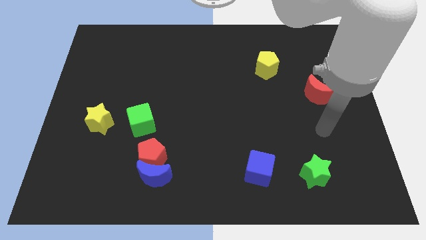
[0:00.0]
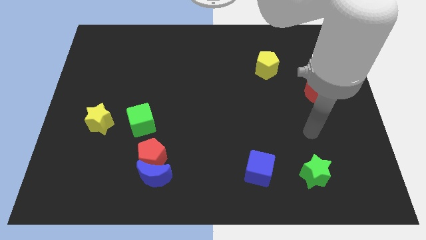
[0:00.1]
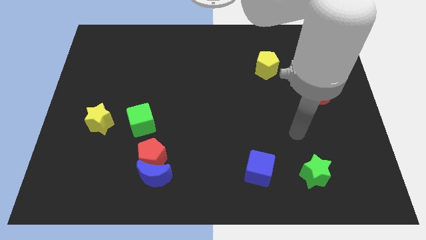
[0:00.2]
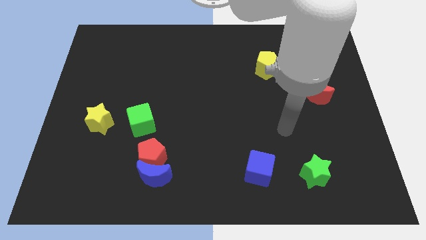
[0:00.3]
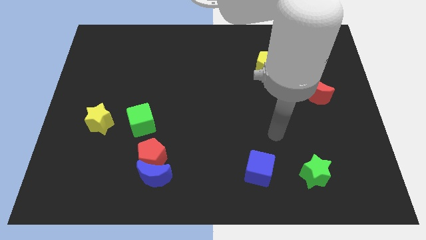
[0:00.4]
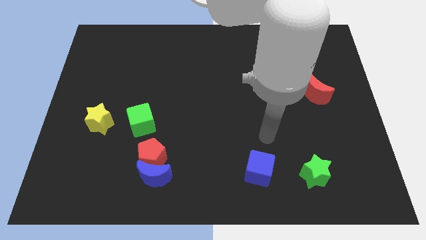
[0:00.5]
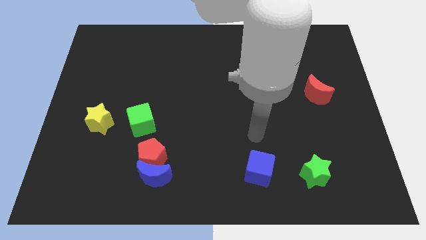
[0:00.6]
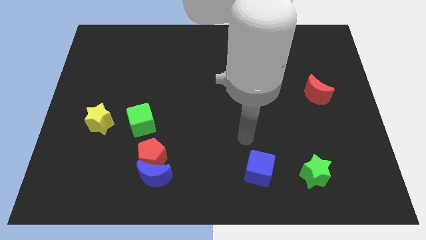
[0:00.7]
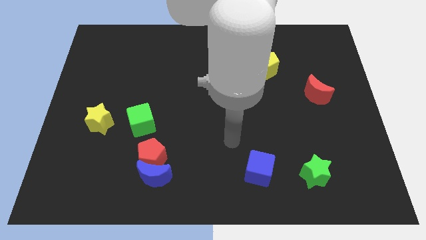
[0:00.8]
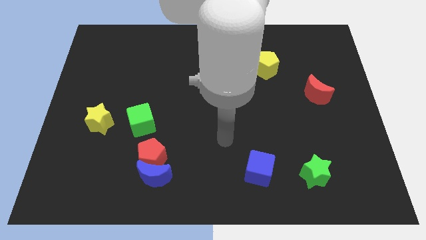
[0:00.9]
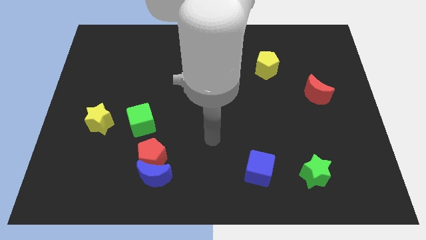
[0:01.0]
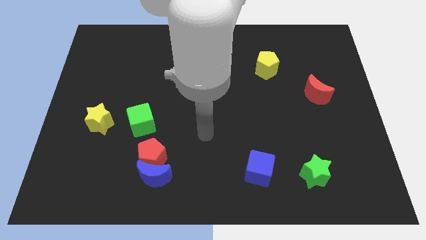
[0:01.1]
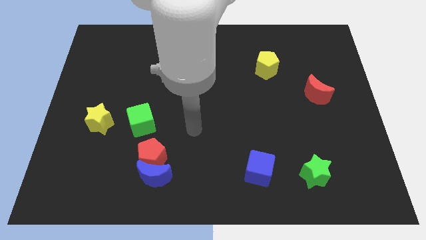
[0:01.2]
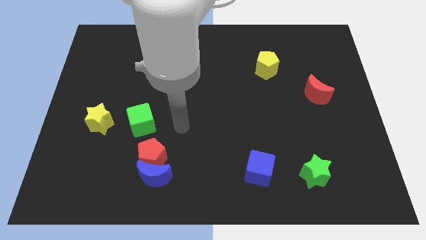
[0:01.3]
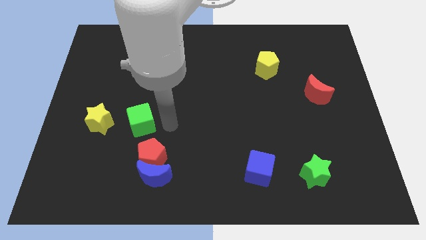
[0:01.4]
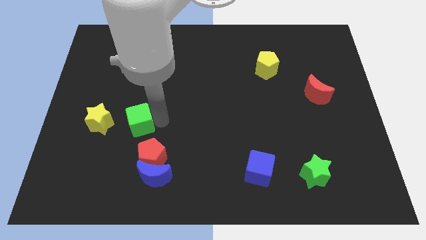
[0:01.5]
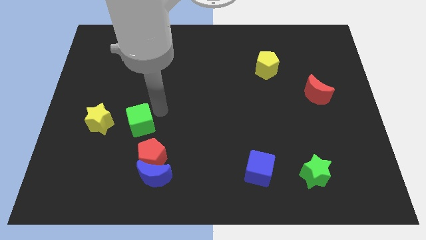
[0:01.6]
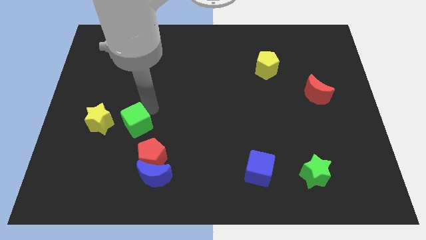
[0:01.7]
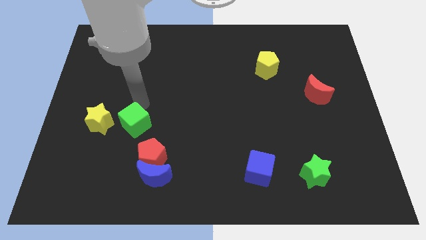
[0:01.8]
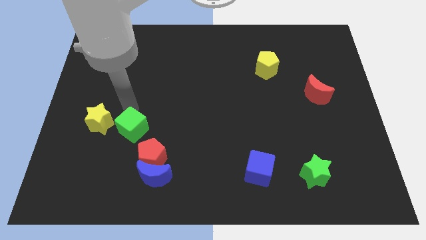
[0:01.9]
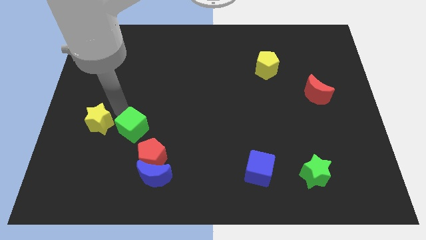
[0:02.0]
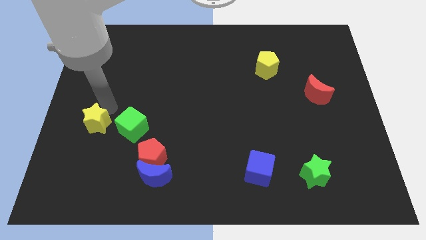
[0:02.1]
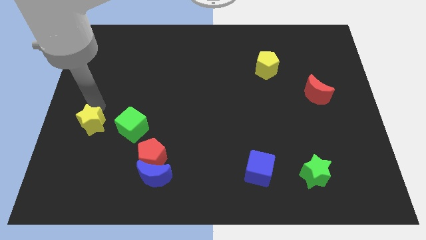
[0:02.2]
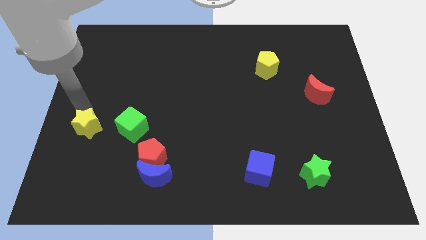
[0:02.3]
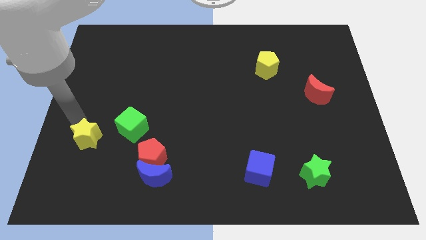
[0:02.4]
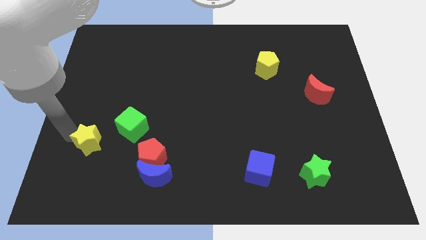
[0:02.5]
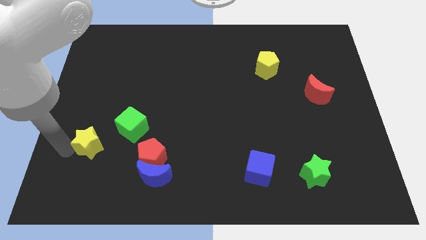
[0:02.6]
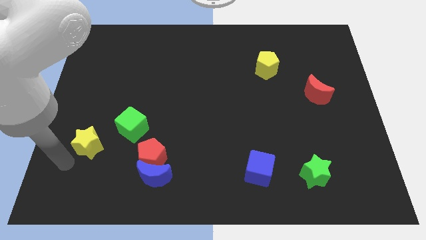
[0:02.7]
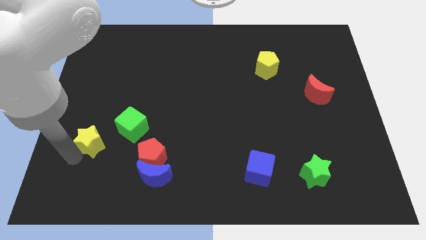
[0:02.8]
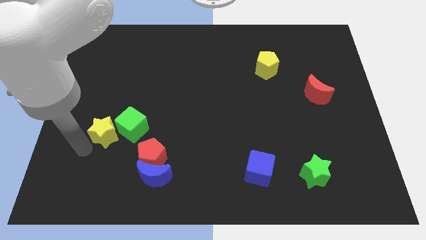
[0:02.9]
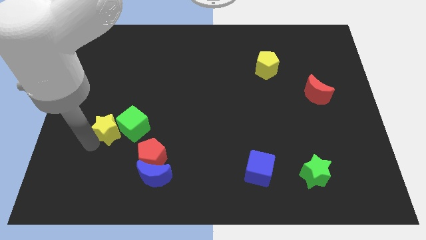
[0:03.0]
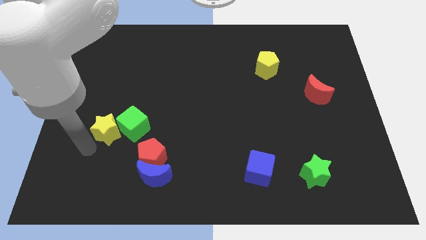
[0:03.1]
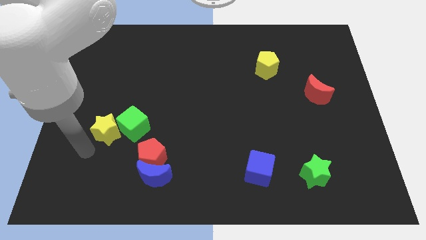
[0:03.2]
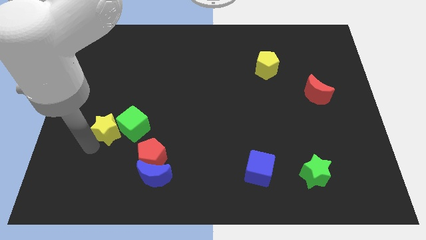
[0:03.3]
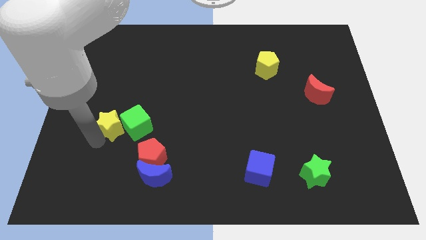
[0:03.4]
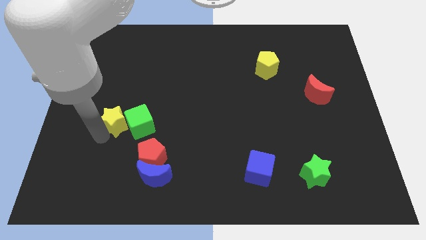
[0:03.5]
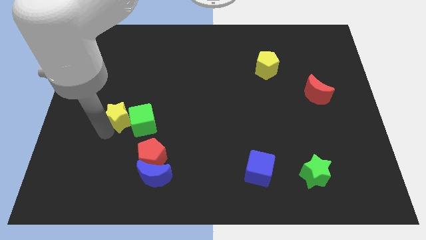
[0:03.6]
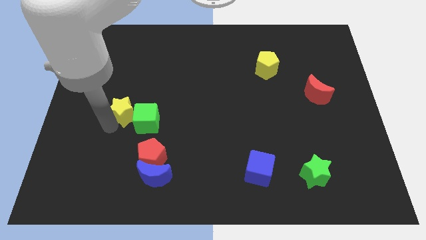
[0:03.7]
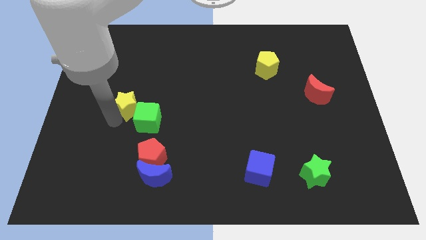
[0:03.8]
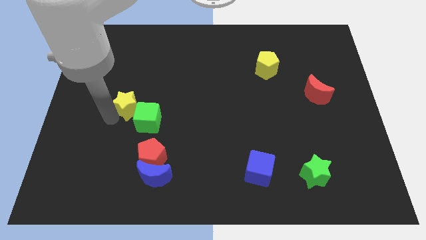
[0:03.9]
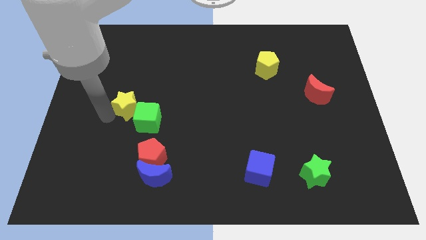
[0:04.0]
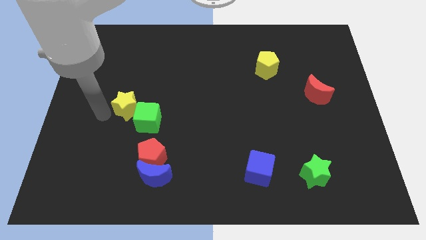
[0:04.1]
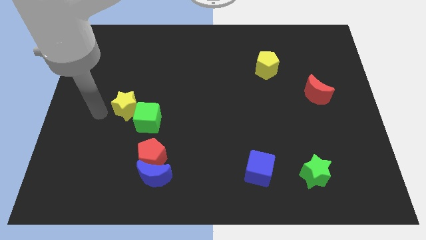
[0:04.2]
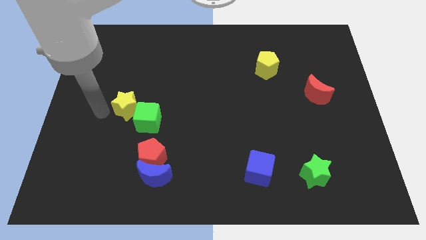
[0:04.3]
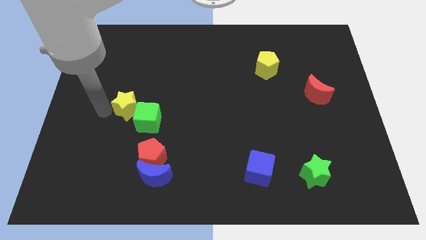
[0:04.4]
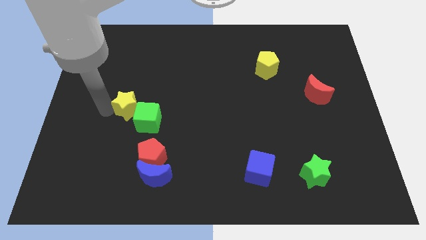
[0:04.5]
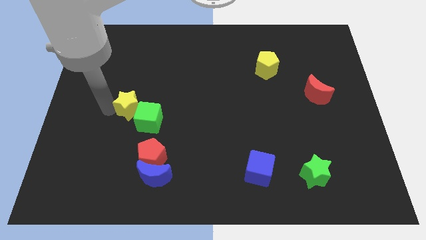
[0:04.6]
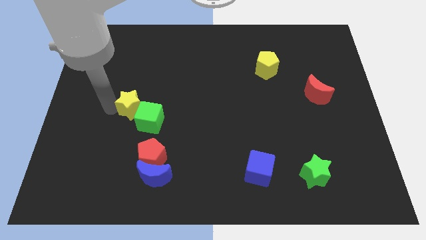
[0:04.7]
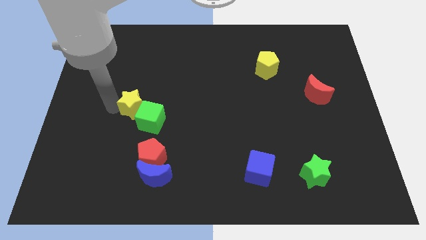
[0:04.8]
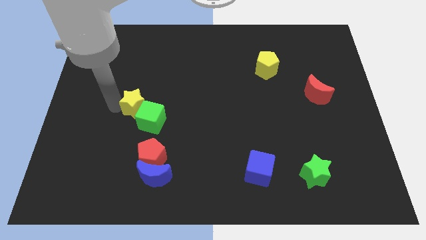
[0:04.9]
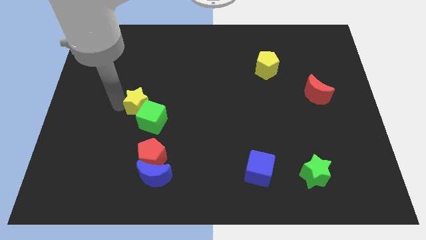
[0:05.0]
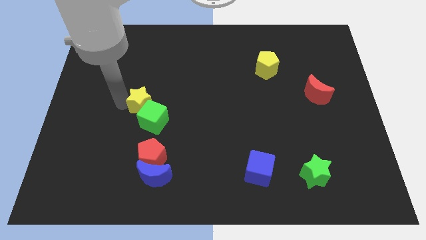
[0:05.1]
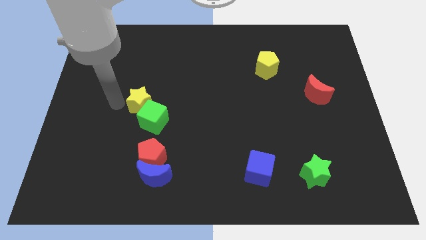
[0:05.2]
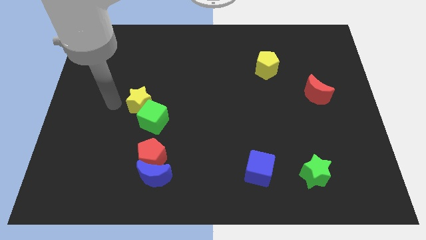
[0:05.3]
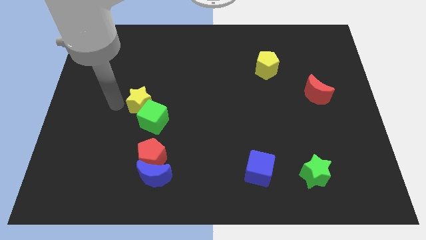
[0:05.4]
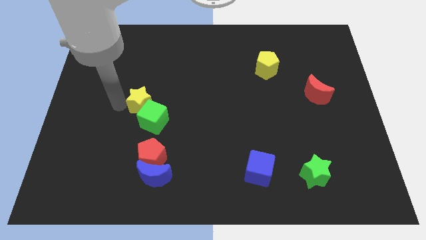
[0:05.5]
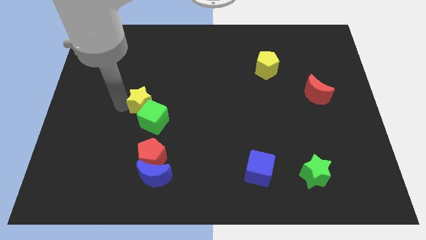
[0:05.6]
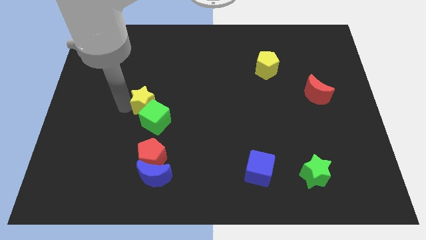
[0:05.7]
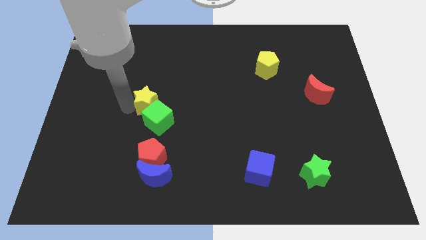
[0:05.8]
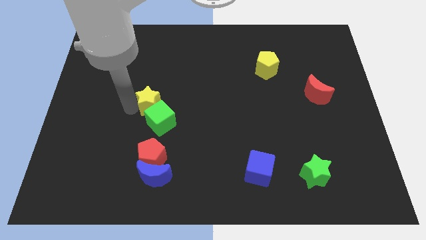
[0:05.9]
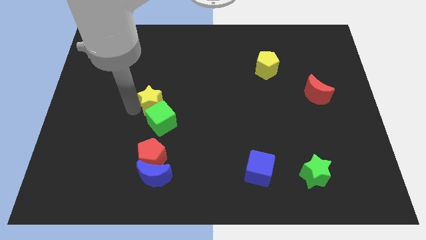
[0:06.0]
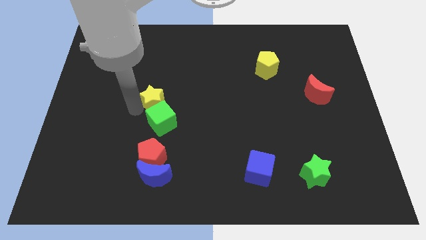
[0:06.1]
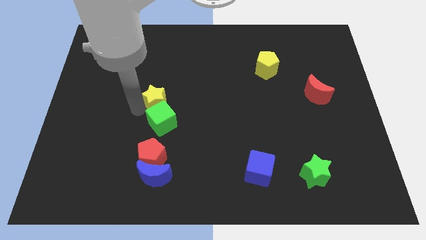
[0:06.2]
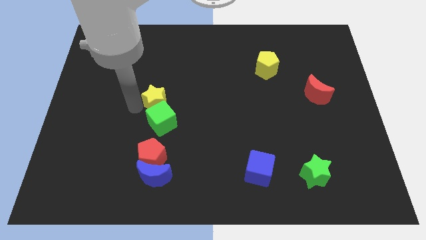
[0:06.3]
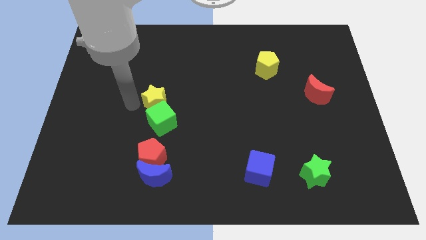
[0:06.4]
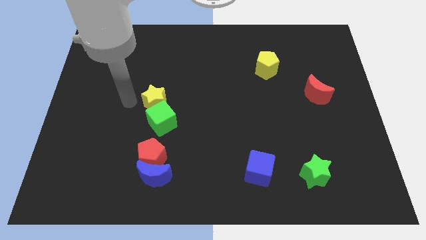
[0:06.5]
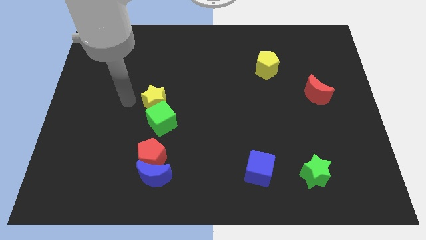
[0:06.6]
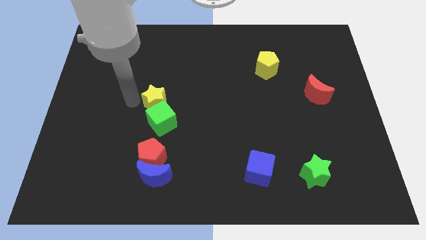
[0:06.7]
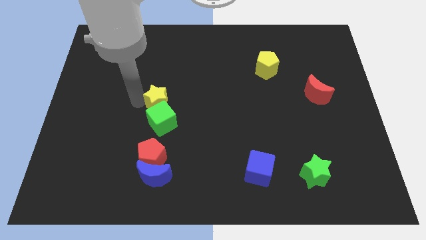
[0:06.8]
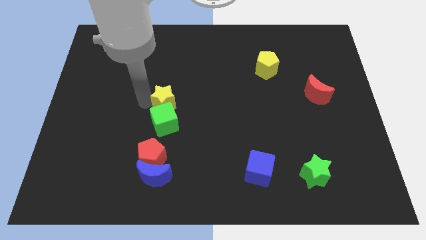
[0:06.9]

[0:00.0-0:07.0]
move the yellow star to the middle
